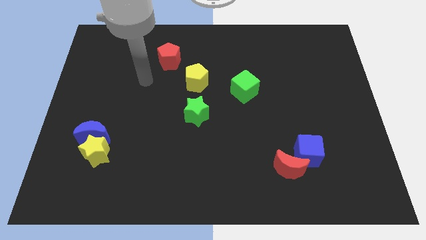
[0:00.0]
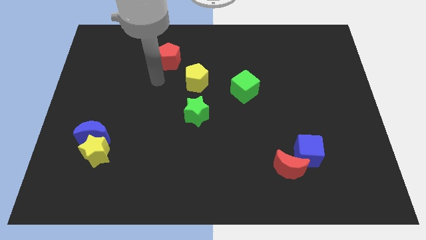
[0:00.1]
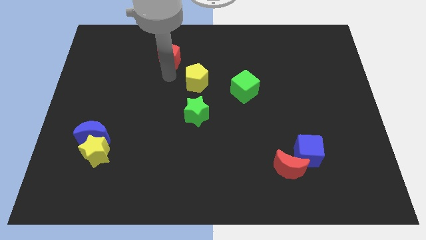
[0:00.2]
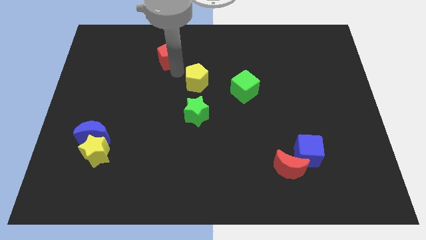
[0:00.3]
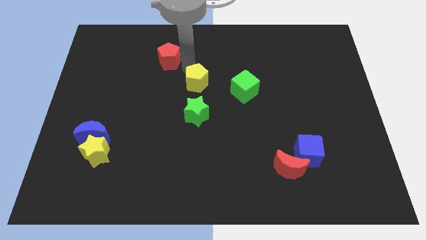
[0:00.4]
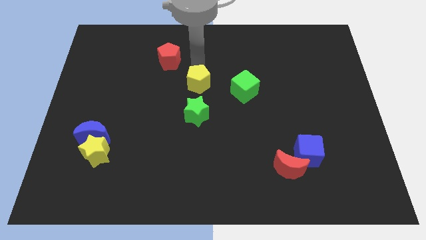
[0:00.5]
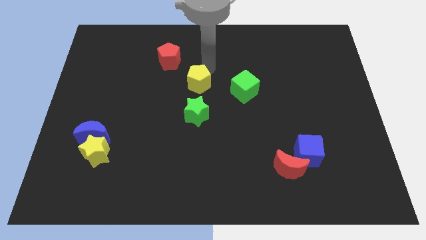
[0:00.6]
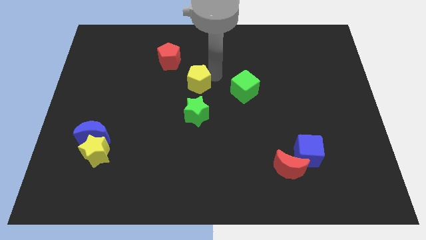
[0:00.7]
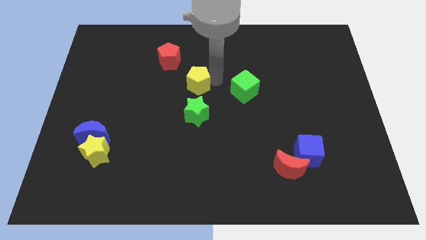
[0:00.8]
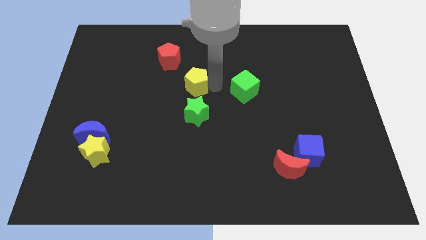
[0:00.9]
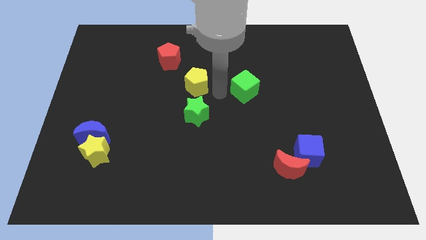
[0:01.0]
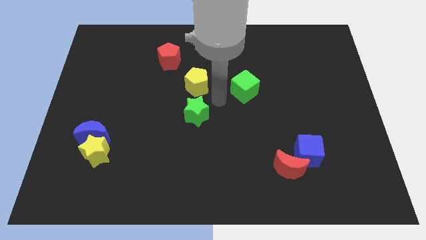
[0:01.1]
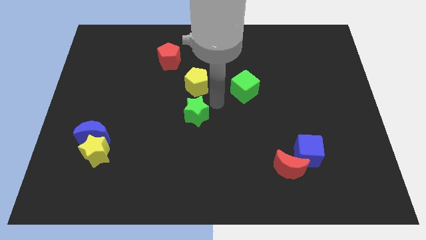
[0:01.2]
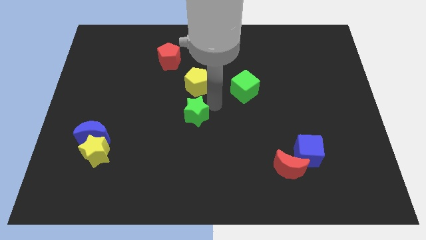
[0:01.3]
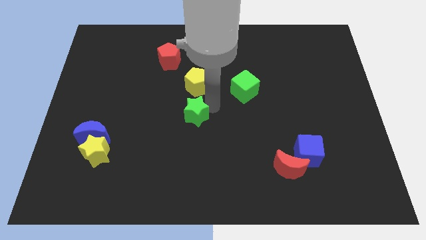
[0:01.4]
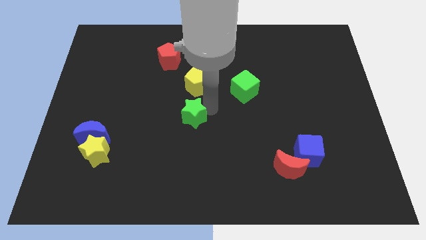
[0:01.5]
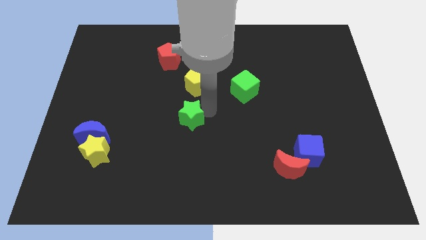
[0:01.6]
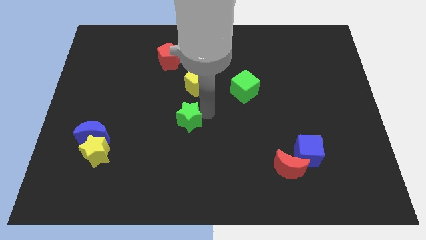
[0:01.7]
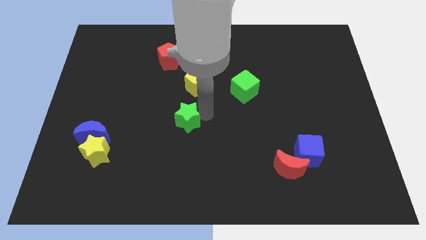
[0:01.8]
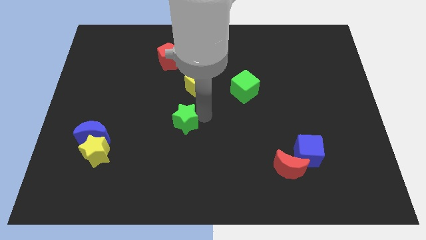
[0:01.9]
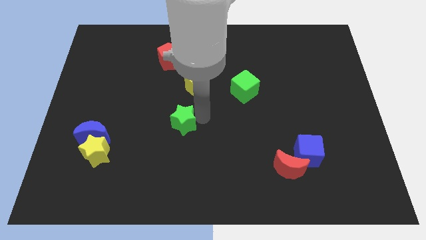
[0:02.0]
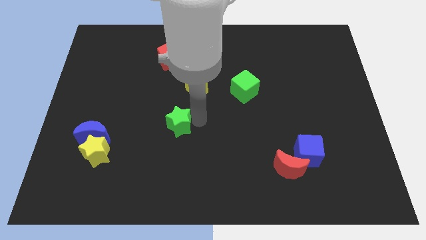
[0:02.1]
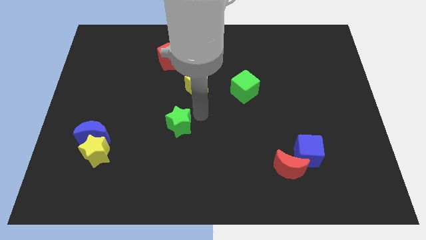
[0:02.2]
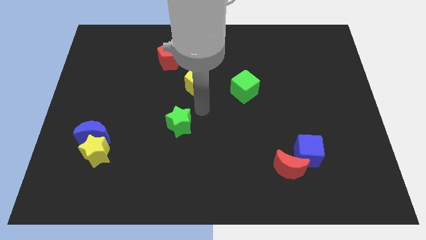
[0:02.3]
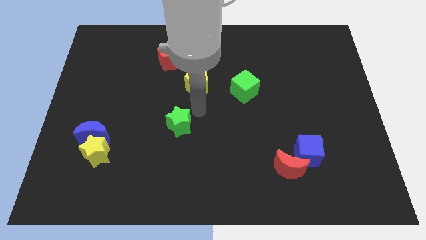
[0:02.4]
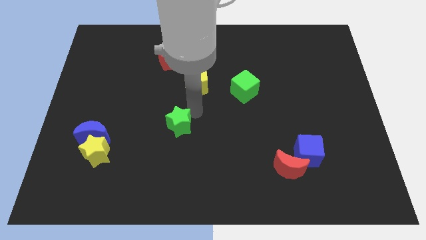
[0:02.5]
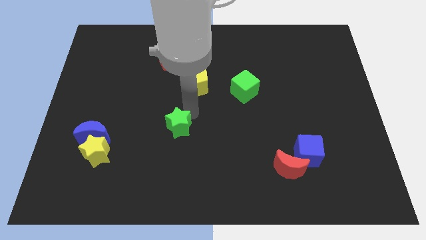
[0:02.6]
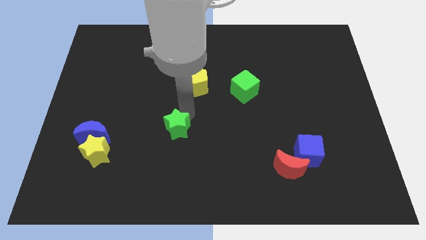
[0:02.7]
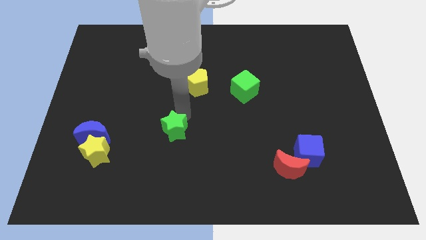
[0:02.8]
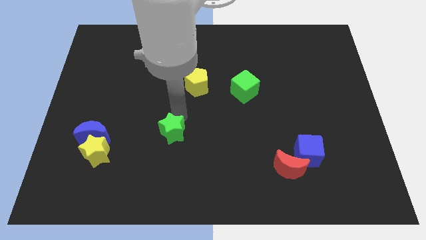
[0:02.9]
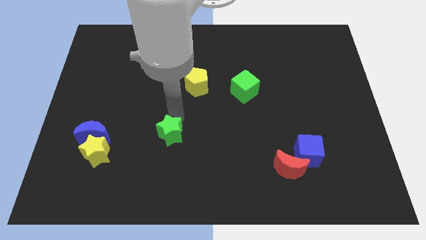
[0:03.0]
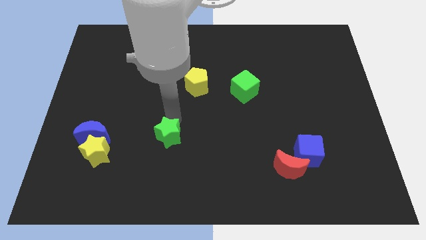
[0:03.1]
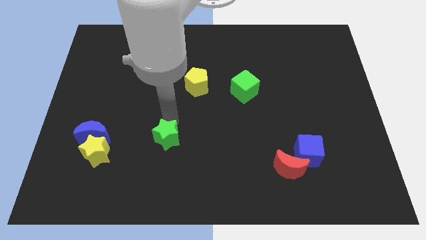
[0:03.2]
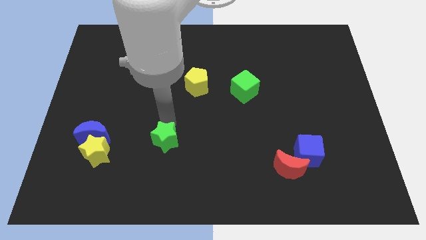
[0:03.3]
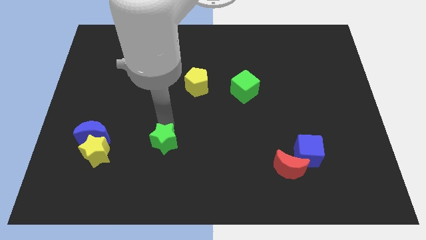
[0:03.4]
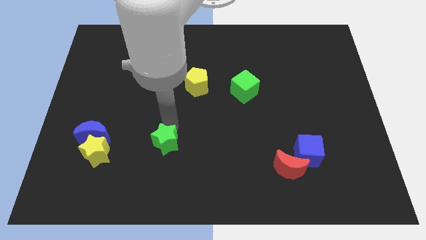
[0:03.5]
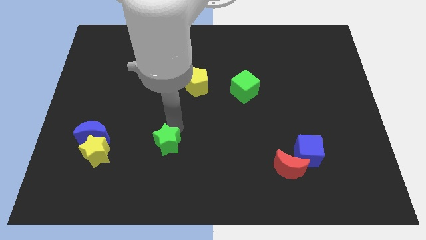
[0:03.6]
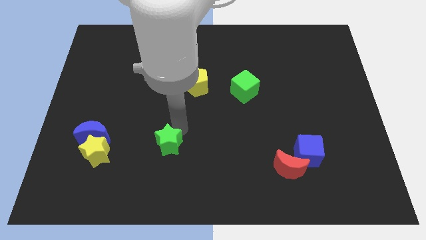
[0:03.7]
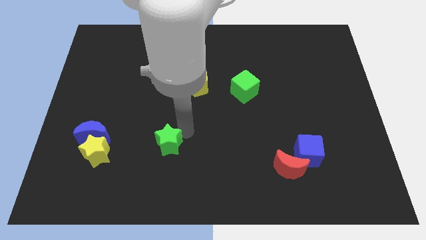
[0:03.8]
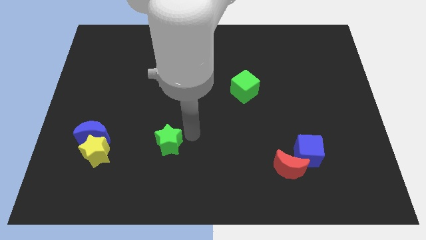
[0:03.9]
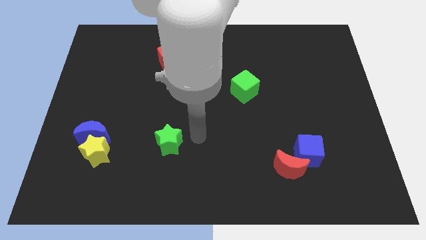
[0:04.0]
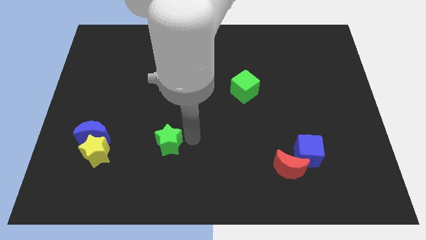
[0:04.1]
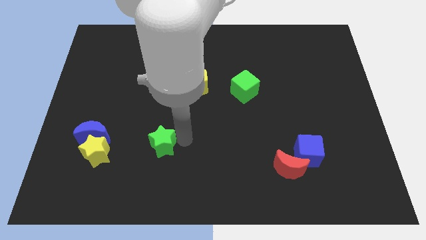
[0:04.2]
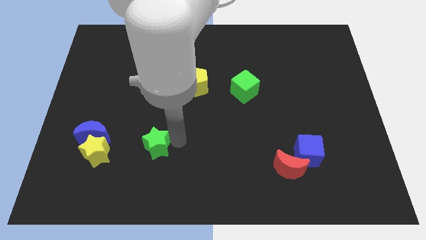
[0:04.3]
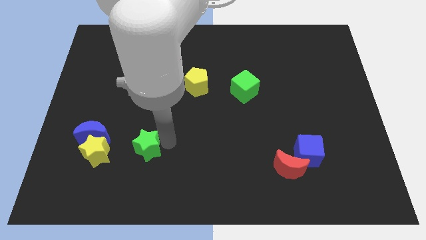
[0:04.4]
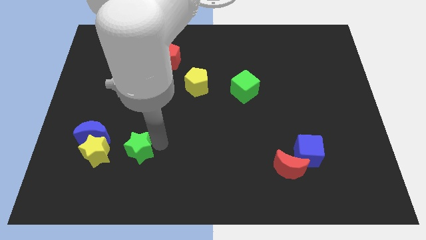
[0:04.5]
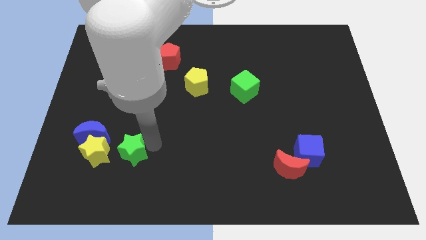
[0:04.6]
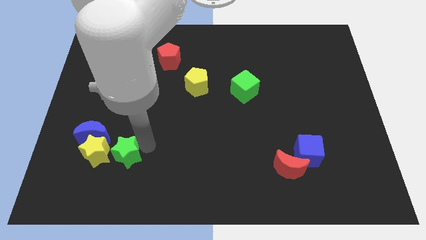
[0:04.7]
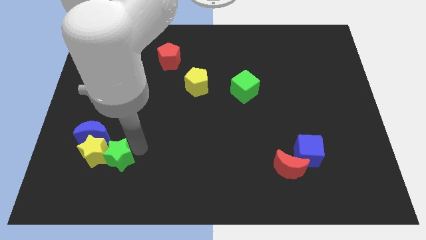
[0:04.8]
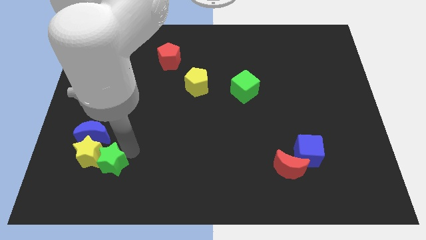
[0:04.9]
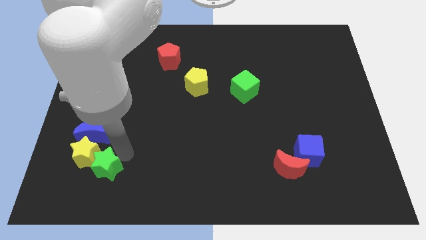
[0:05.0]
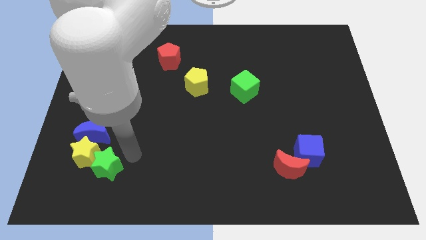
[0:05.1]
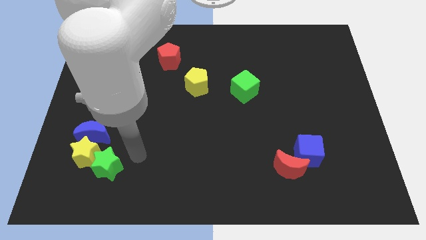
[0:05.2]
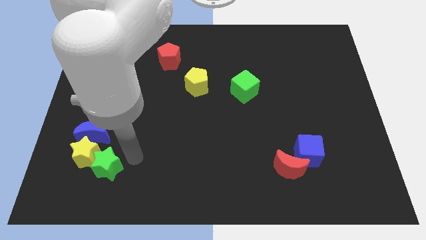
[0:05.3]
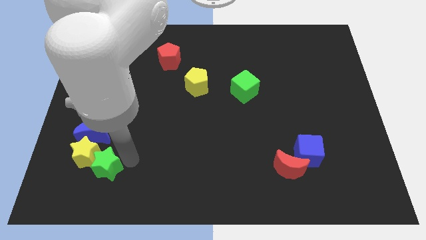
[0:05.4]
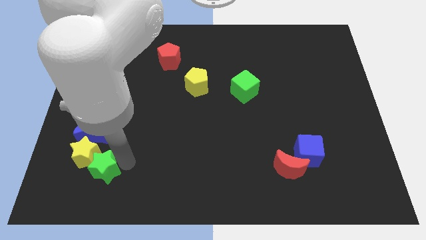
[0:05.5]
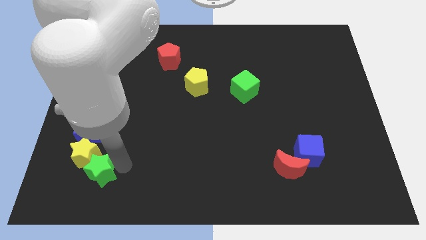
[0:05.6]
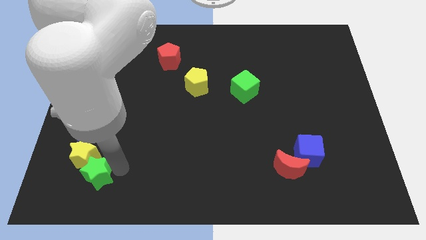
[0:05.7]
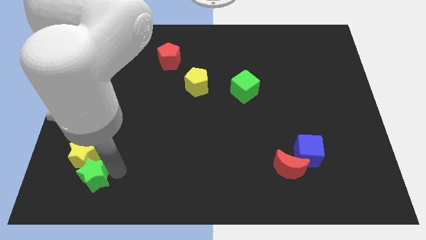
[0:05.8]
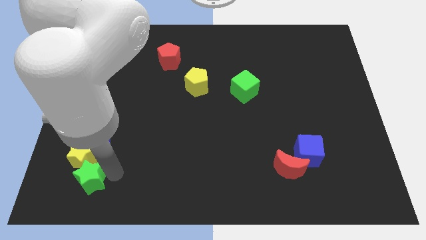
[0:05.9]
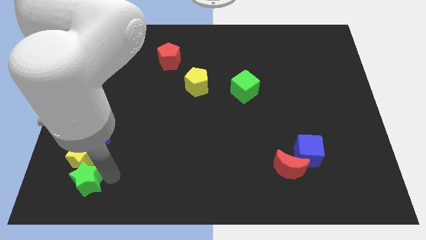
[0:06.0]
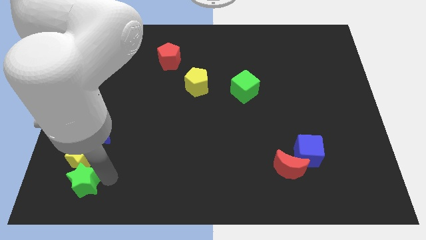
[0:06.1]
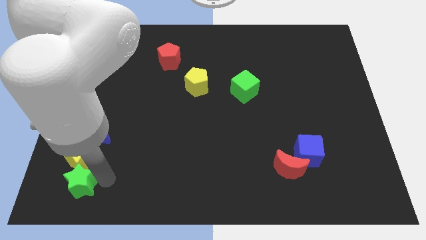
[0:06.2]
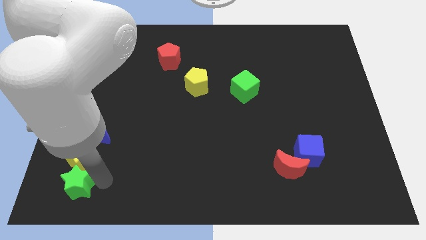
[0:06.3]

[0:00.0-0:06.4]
push the green star to the bottom left of the board
